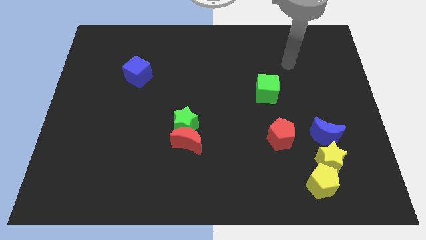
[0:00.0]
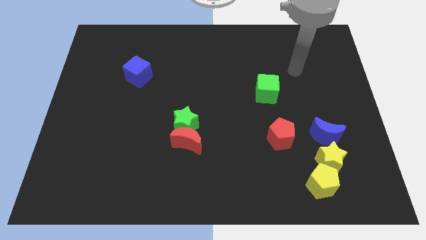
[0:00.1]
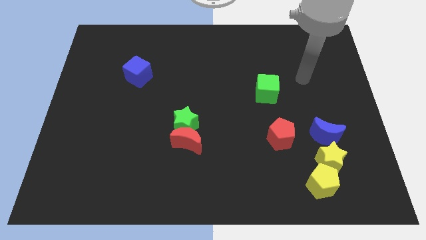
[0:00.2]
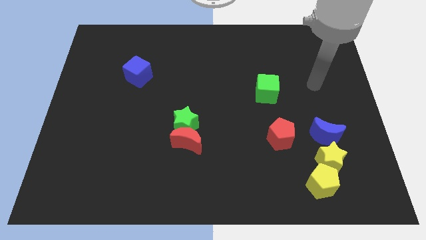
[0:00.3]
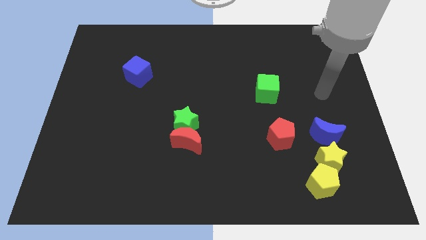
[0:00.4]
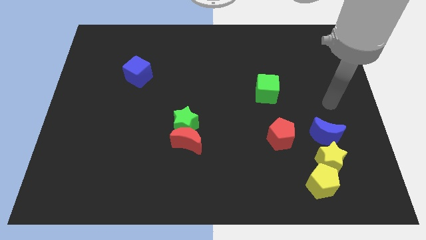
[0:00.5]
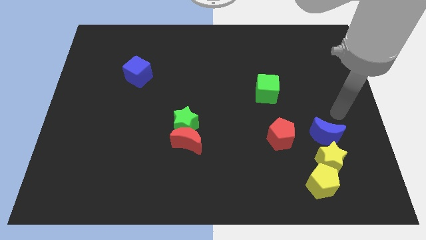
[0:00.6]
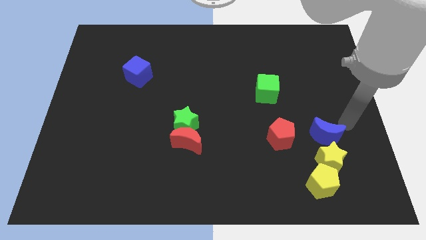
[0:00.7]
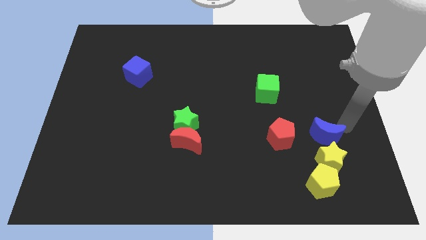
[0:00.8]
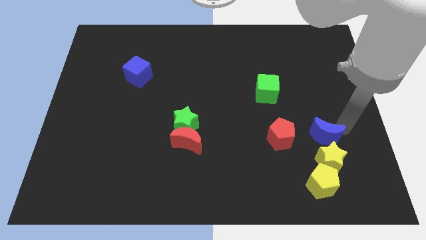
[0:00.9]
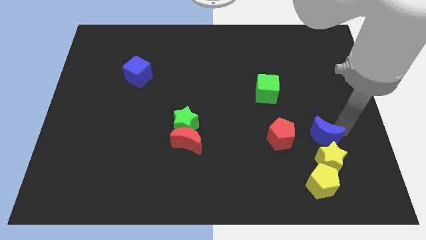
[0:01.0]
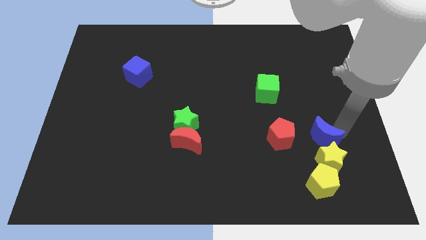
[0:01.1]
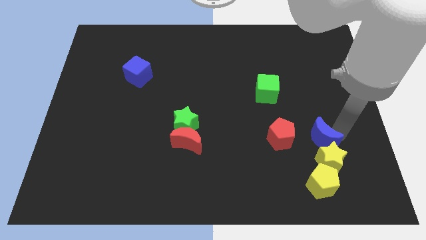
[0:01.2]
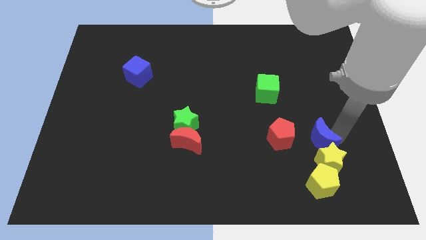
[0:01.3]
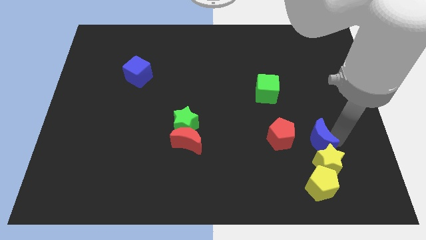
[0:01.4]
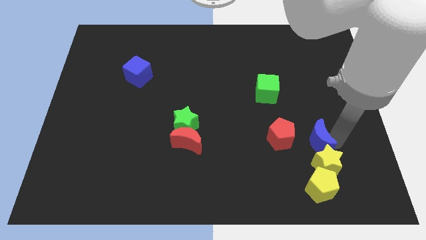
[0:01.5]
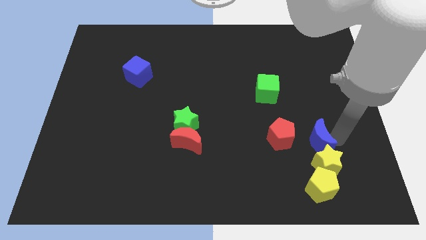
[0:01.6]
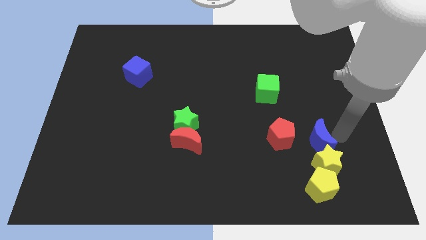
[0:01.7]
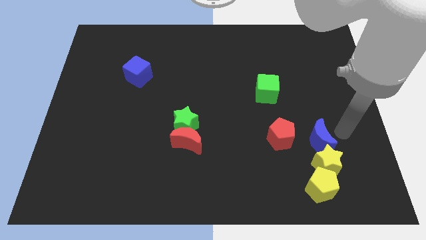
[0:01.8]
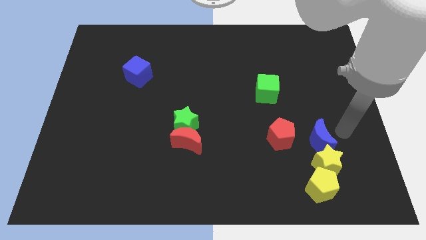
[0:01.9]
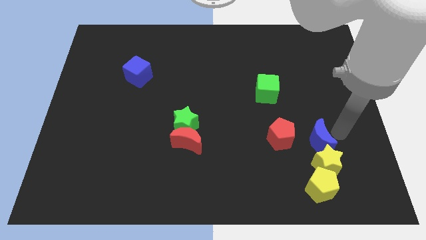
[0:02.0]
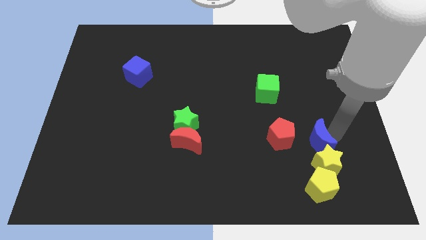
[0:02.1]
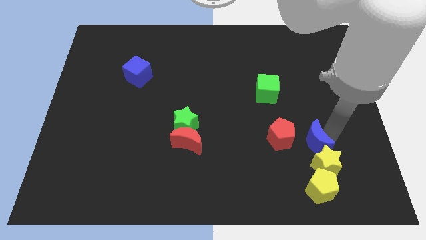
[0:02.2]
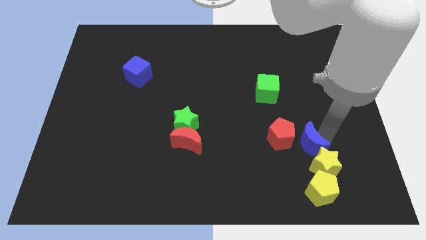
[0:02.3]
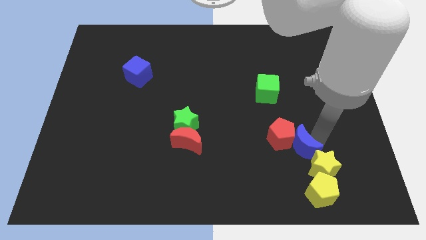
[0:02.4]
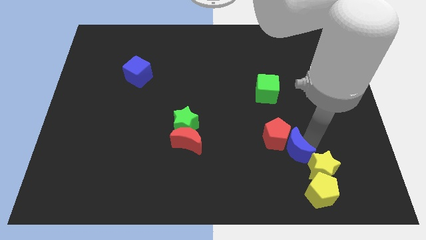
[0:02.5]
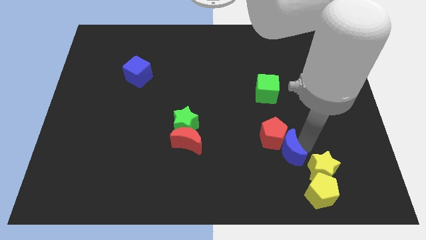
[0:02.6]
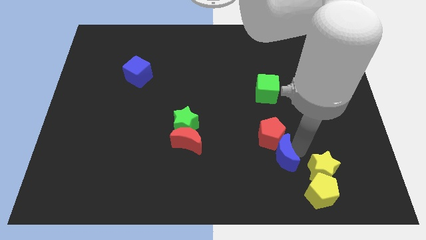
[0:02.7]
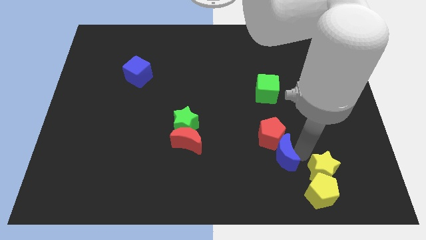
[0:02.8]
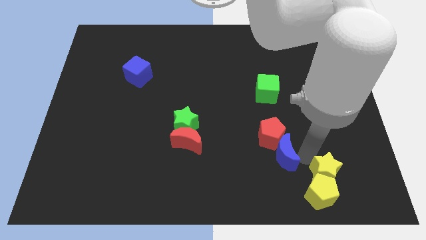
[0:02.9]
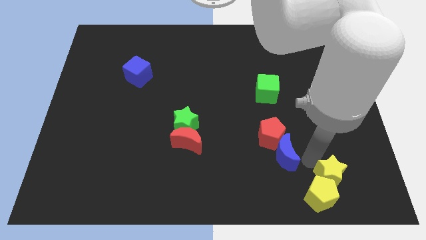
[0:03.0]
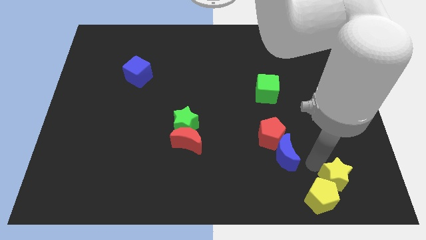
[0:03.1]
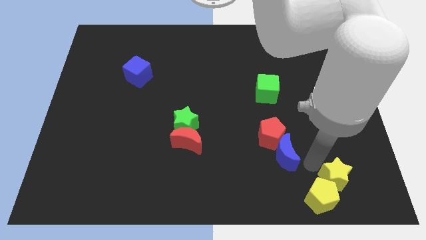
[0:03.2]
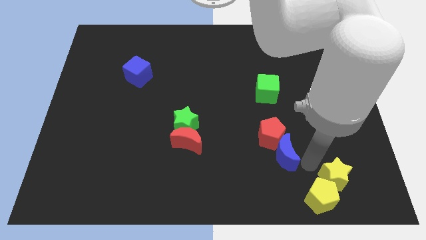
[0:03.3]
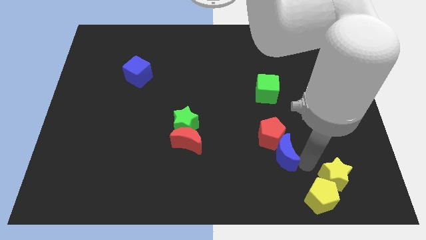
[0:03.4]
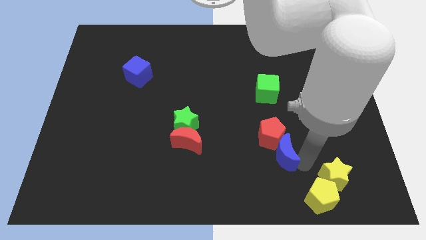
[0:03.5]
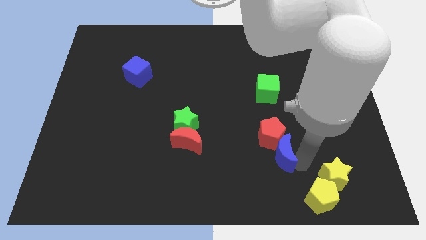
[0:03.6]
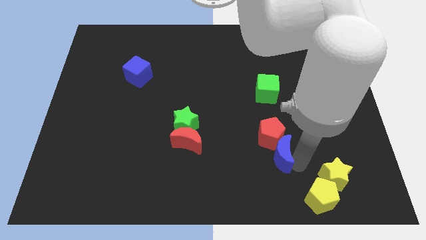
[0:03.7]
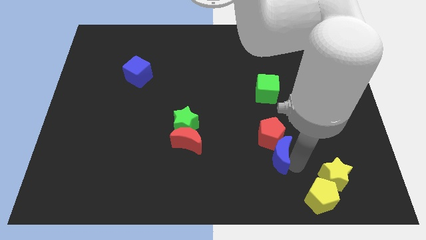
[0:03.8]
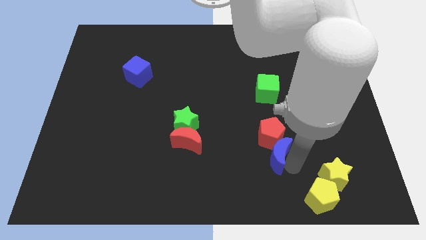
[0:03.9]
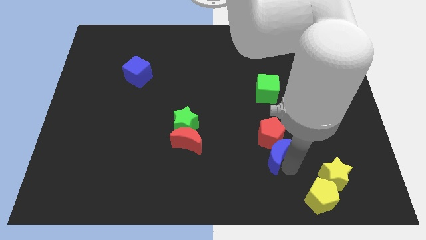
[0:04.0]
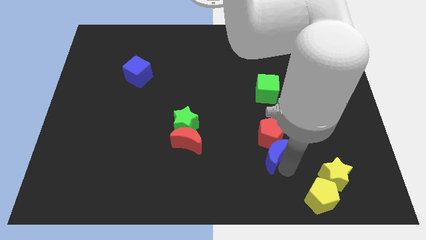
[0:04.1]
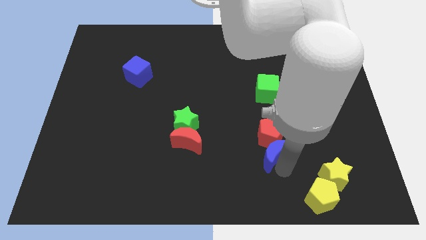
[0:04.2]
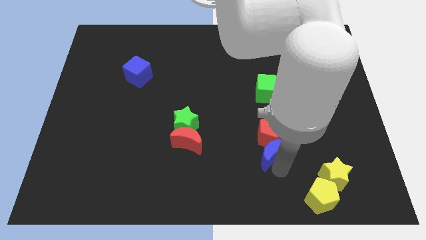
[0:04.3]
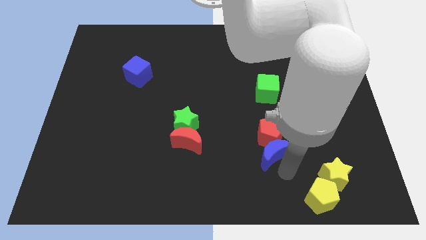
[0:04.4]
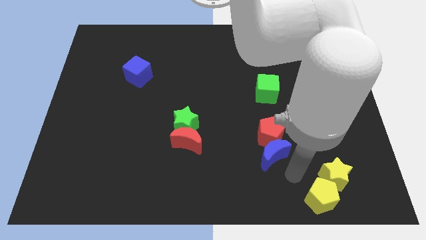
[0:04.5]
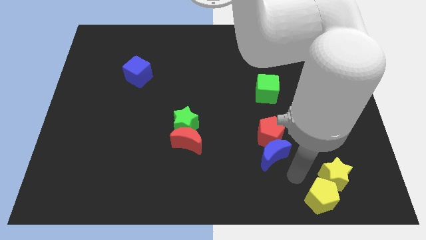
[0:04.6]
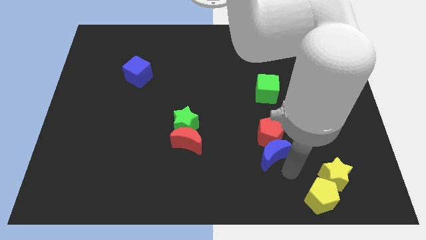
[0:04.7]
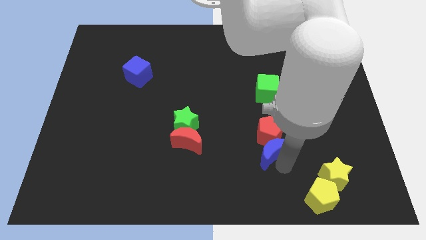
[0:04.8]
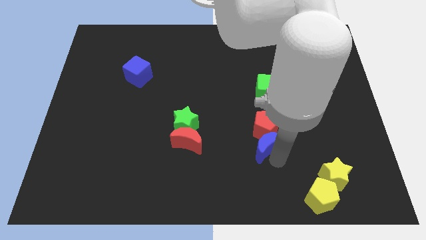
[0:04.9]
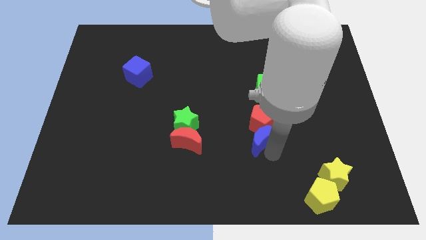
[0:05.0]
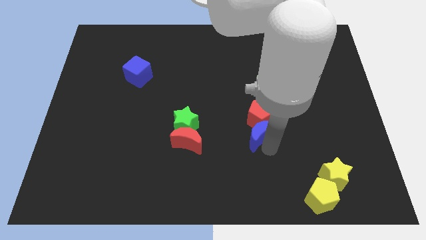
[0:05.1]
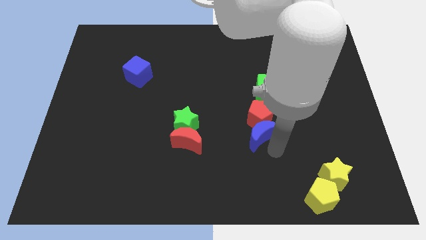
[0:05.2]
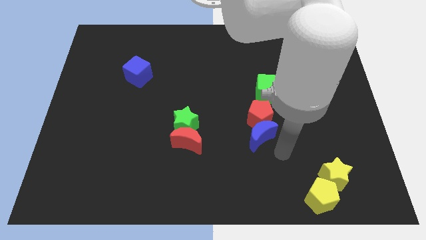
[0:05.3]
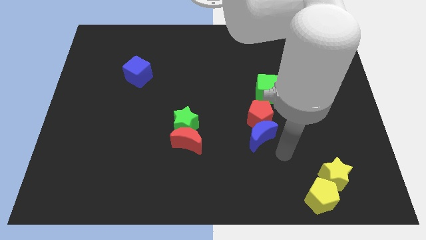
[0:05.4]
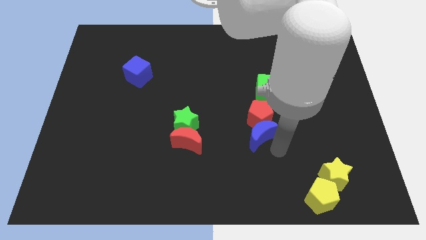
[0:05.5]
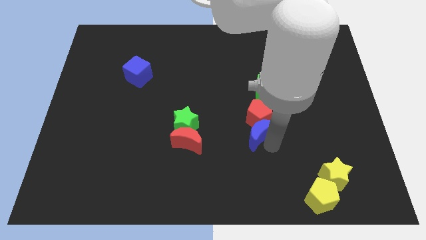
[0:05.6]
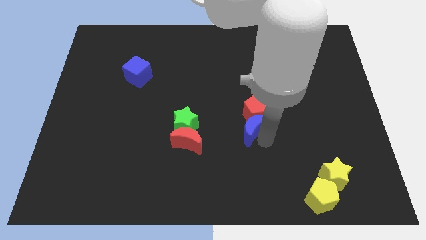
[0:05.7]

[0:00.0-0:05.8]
slide the blue moon to the middle of the board

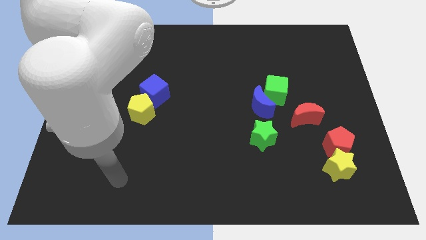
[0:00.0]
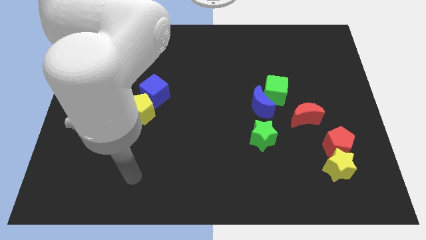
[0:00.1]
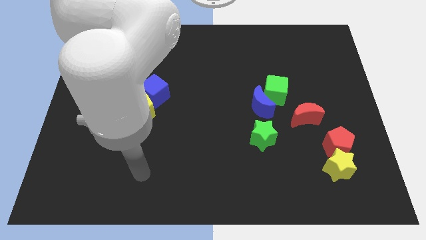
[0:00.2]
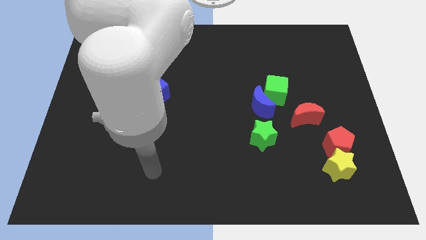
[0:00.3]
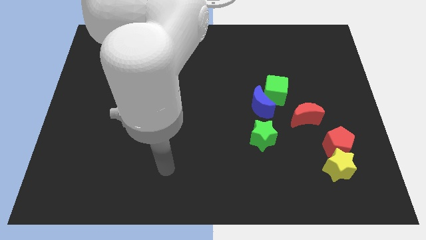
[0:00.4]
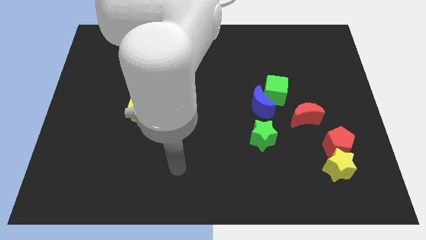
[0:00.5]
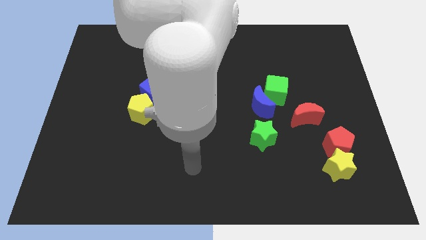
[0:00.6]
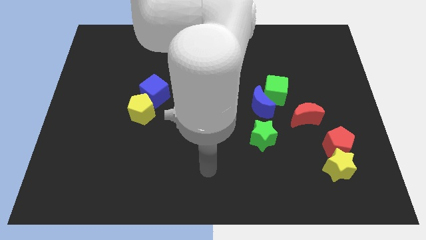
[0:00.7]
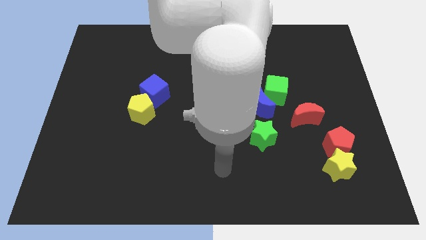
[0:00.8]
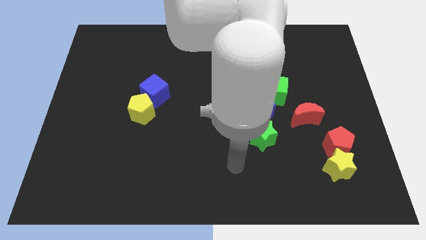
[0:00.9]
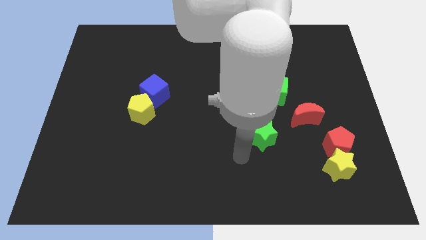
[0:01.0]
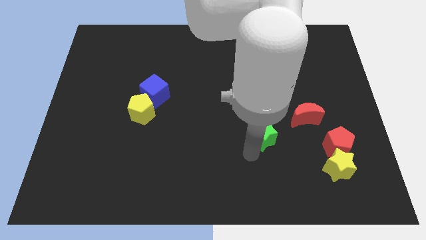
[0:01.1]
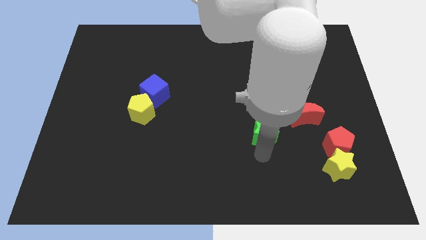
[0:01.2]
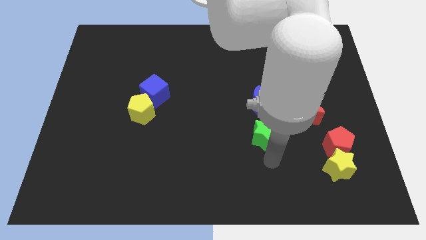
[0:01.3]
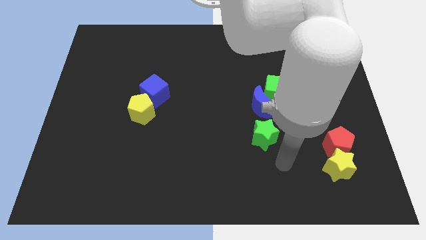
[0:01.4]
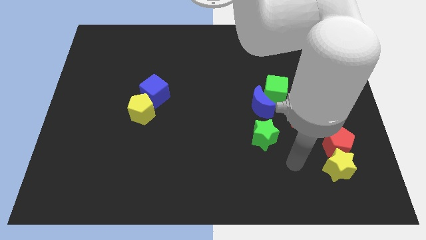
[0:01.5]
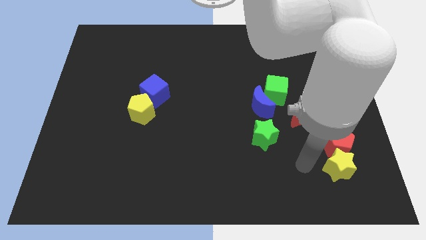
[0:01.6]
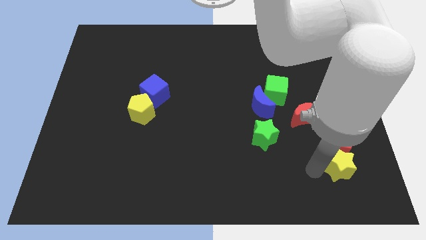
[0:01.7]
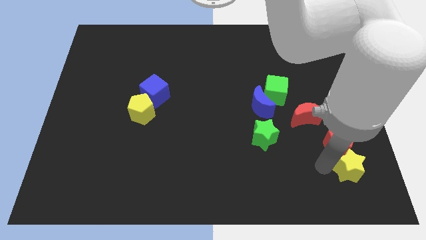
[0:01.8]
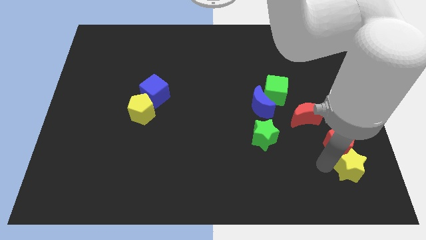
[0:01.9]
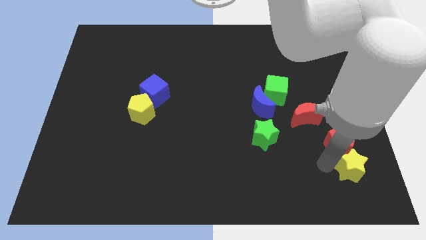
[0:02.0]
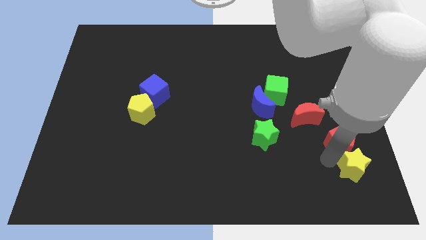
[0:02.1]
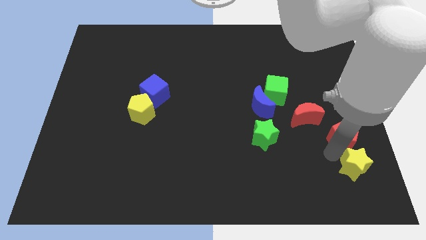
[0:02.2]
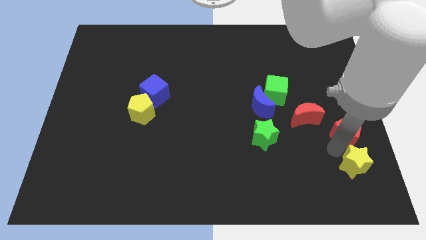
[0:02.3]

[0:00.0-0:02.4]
put the red pentagon to the right side
